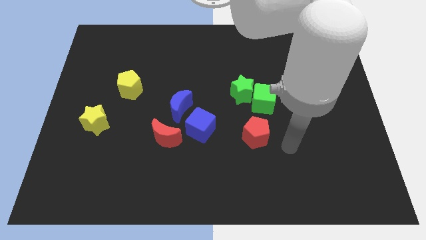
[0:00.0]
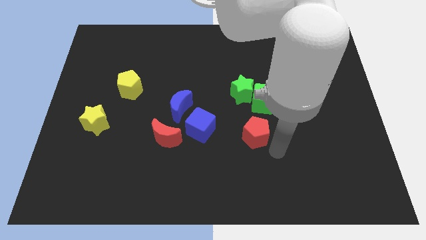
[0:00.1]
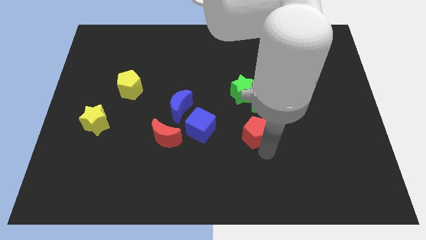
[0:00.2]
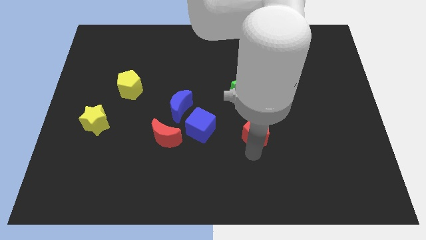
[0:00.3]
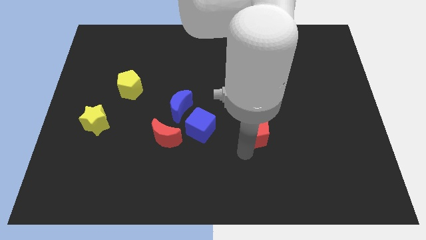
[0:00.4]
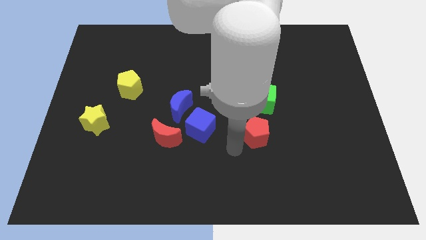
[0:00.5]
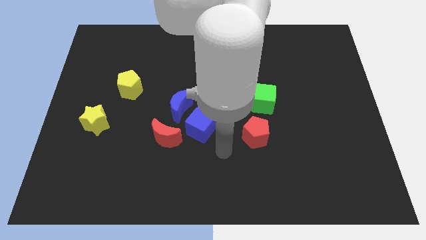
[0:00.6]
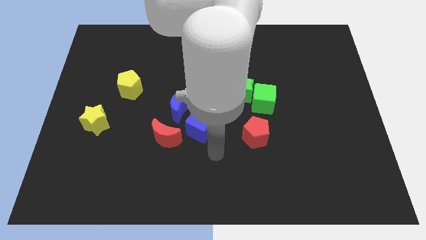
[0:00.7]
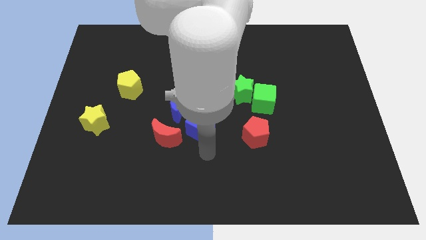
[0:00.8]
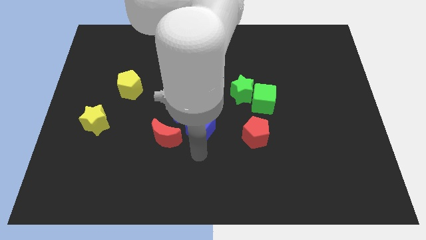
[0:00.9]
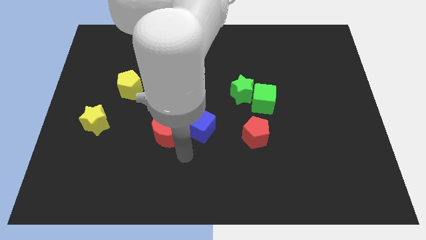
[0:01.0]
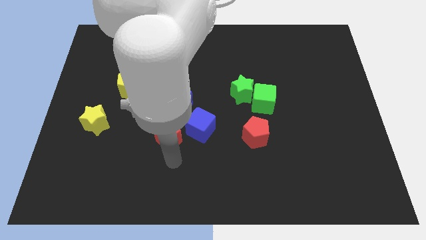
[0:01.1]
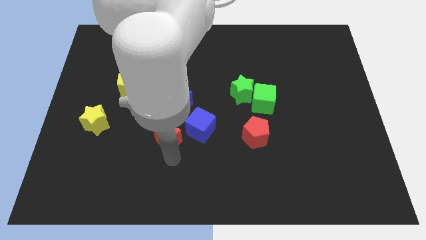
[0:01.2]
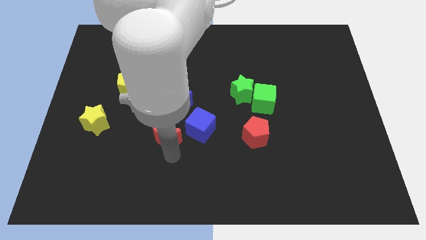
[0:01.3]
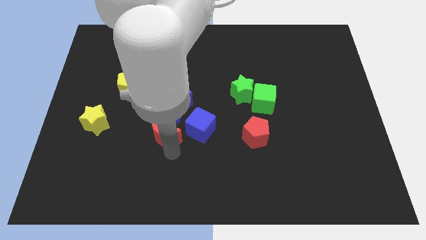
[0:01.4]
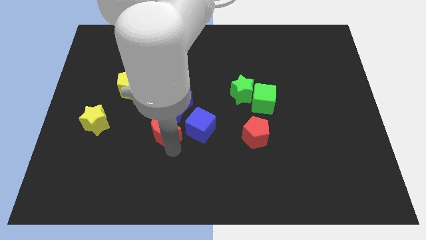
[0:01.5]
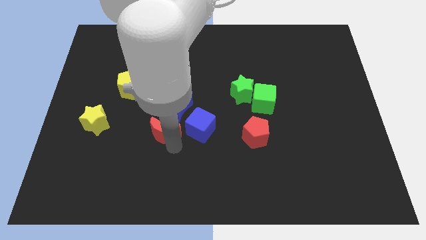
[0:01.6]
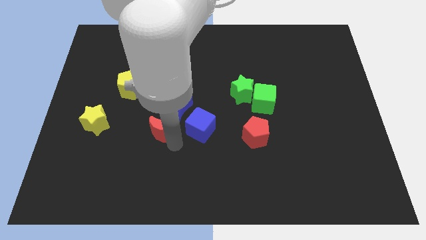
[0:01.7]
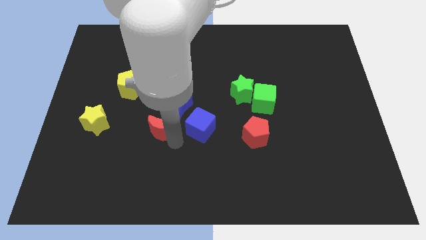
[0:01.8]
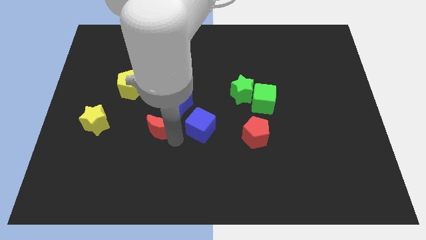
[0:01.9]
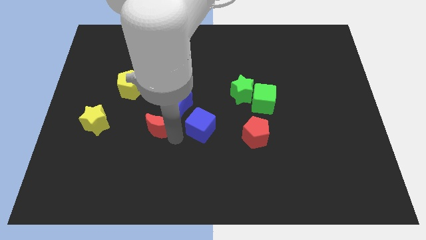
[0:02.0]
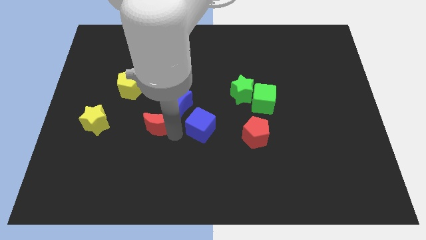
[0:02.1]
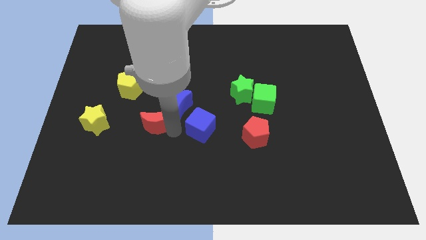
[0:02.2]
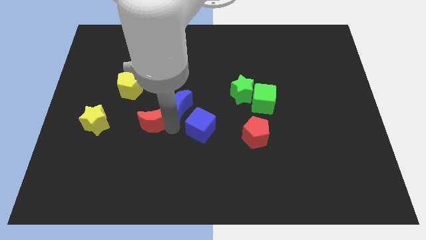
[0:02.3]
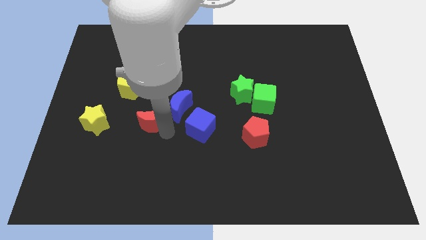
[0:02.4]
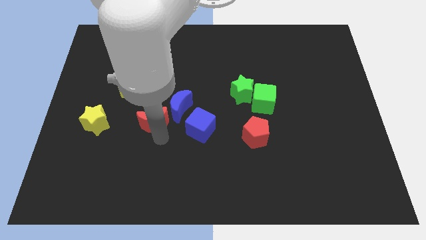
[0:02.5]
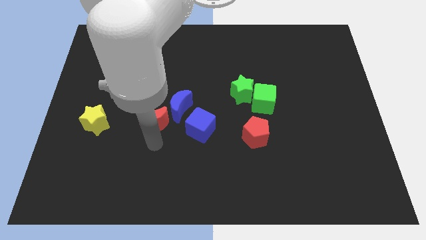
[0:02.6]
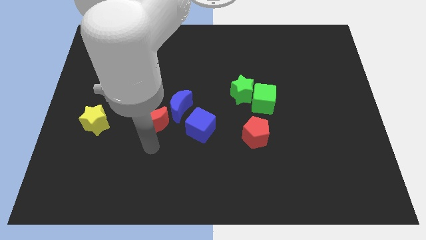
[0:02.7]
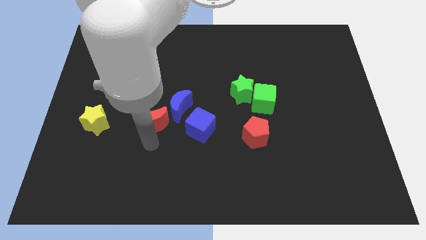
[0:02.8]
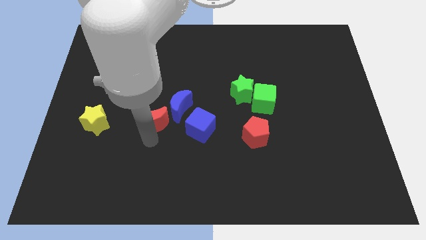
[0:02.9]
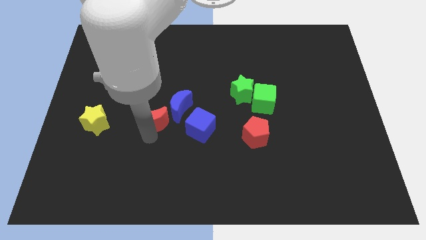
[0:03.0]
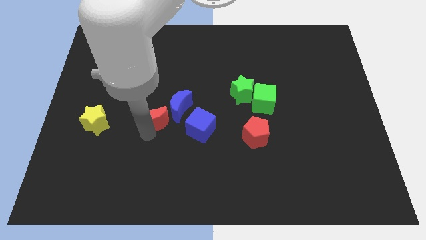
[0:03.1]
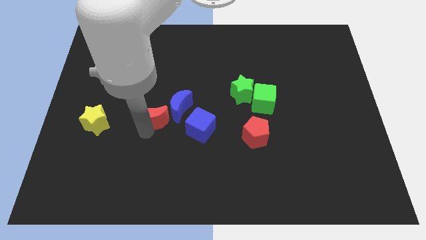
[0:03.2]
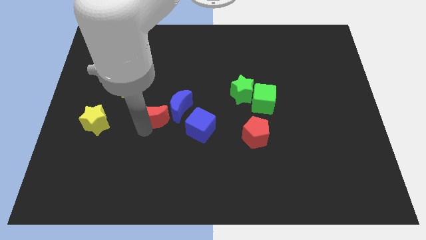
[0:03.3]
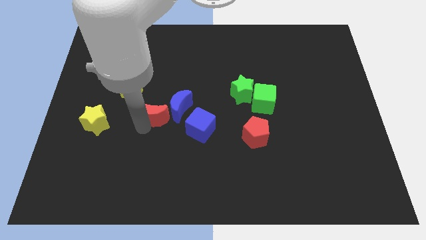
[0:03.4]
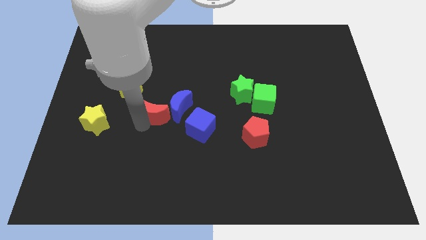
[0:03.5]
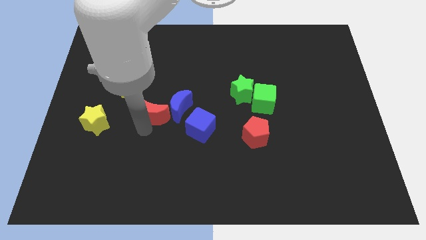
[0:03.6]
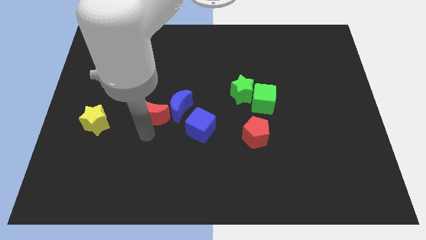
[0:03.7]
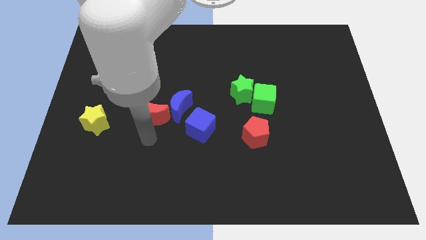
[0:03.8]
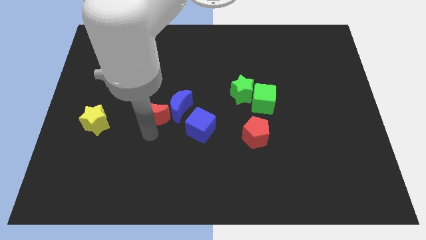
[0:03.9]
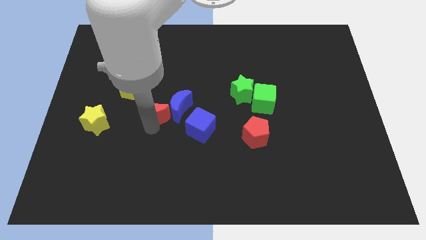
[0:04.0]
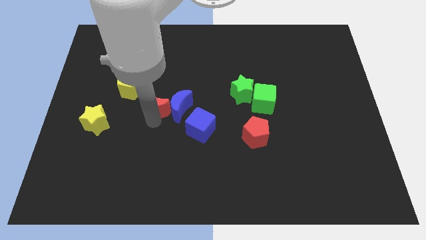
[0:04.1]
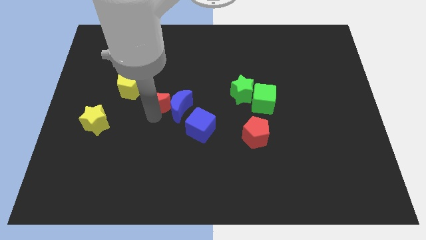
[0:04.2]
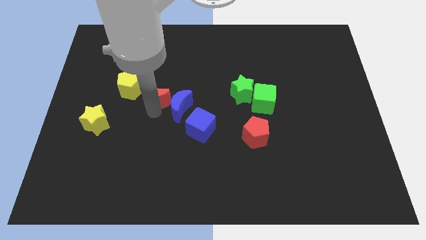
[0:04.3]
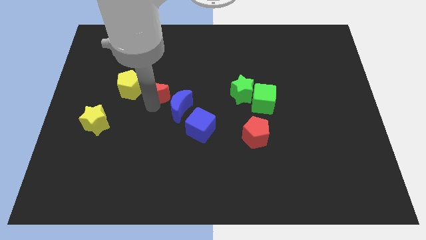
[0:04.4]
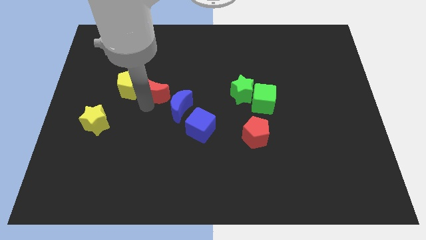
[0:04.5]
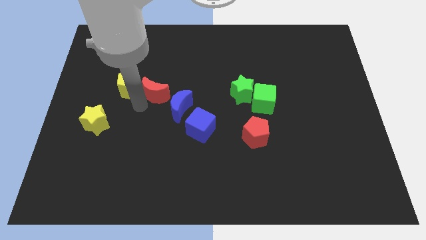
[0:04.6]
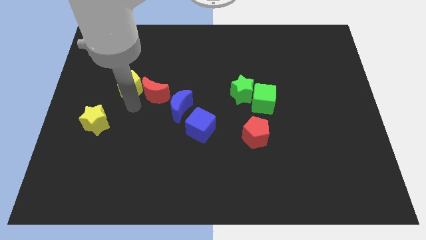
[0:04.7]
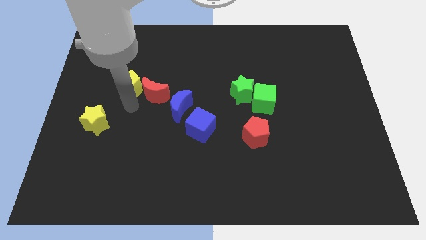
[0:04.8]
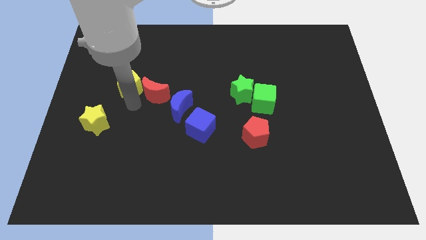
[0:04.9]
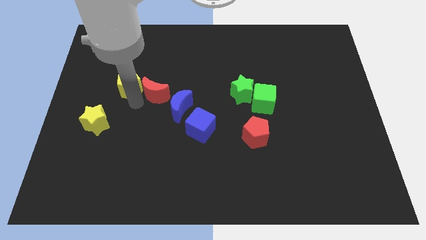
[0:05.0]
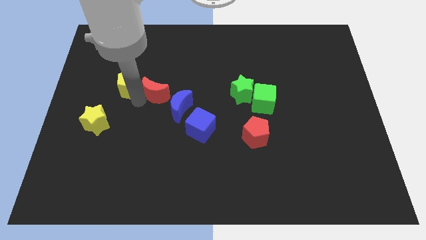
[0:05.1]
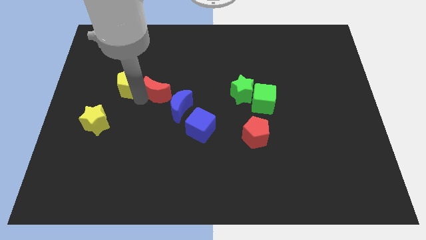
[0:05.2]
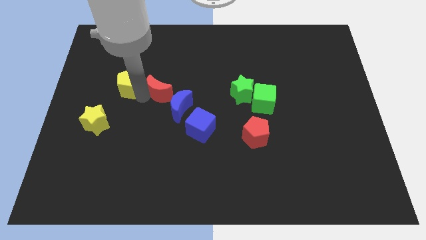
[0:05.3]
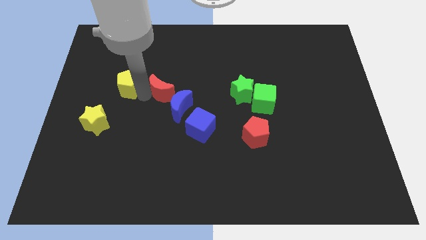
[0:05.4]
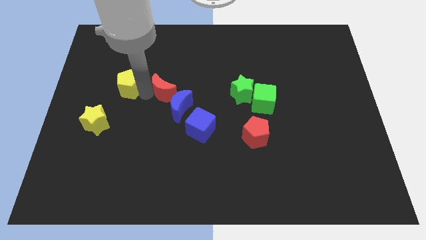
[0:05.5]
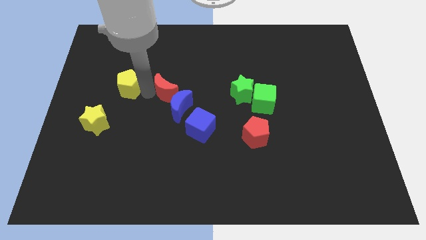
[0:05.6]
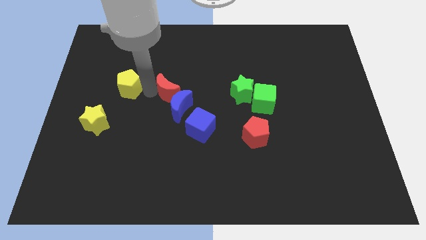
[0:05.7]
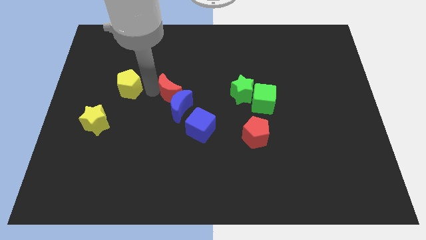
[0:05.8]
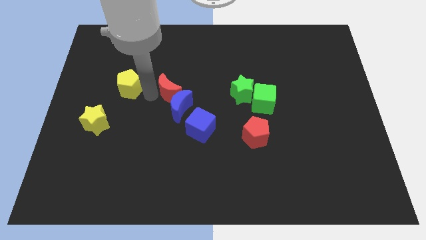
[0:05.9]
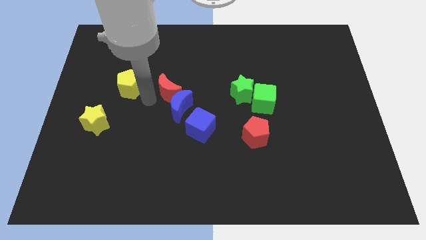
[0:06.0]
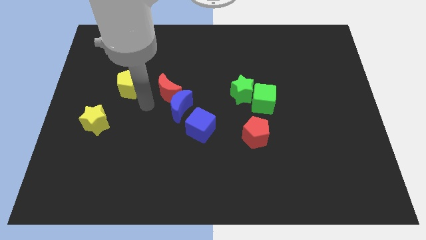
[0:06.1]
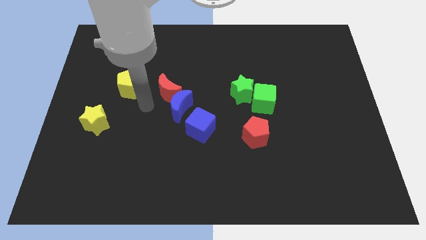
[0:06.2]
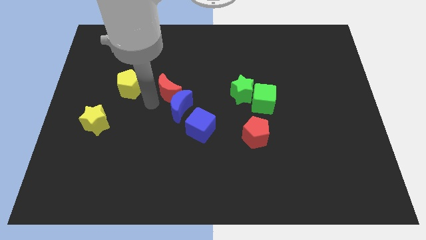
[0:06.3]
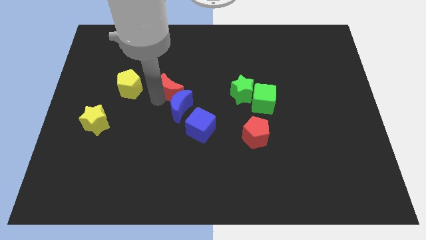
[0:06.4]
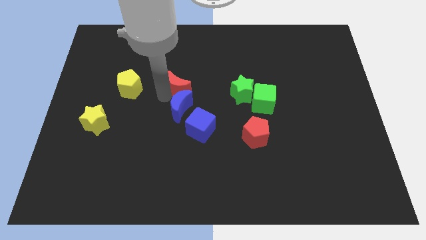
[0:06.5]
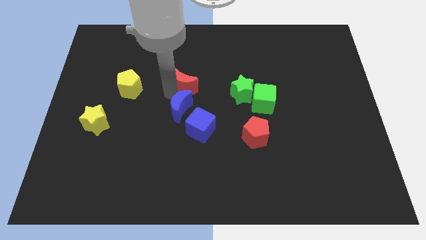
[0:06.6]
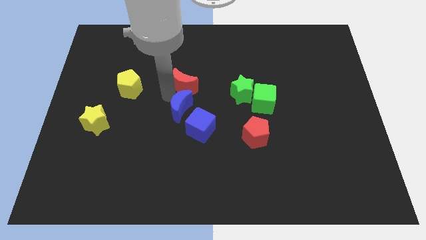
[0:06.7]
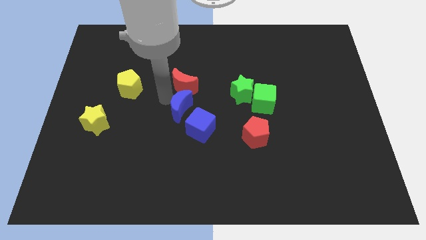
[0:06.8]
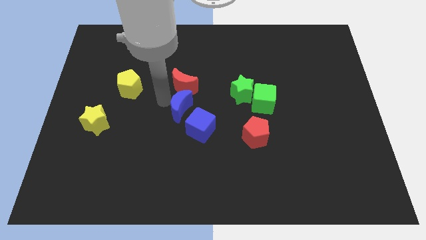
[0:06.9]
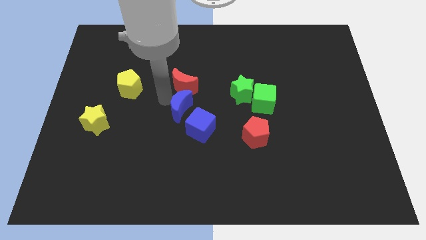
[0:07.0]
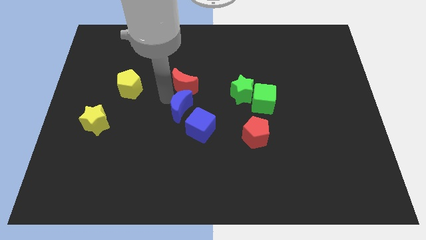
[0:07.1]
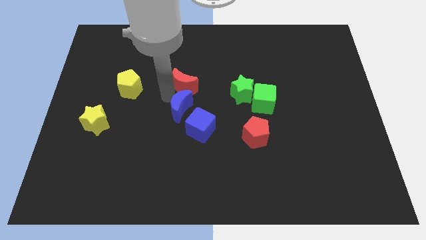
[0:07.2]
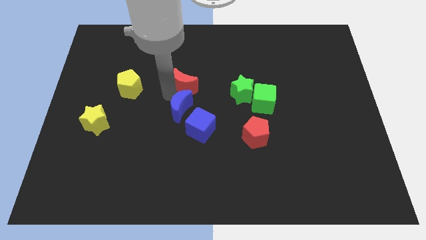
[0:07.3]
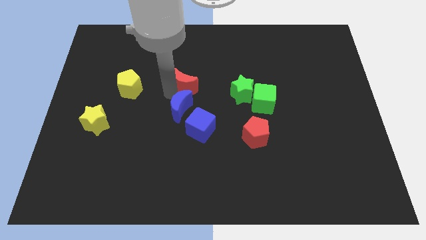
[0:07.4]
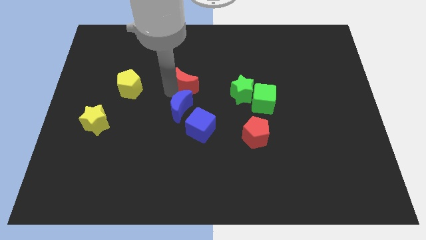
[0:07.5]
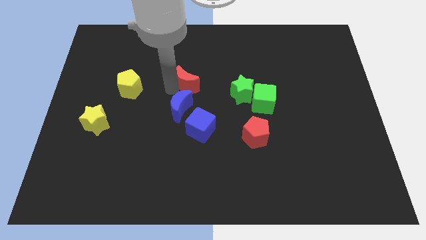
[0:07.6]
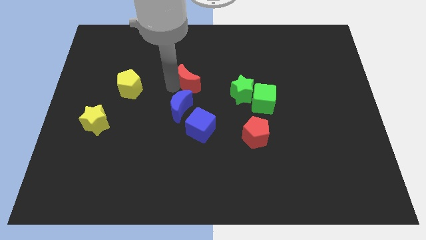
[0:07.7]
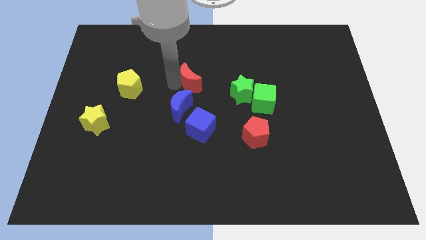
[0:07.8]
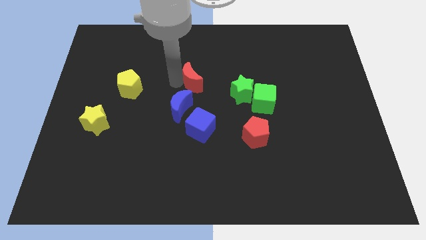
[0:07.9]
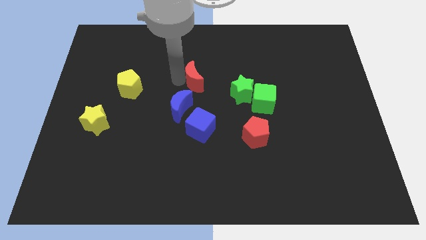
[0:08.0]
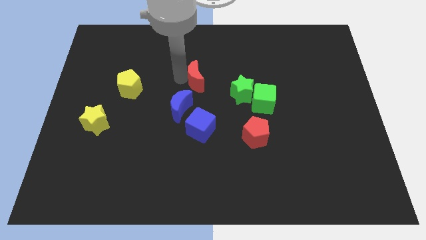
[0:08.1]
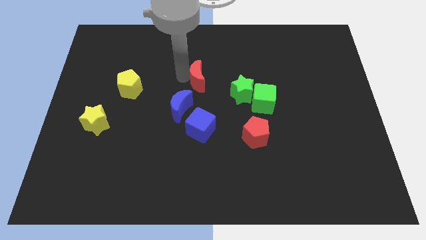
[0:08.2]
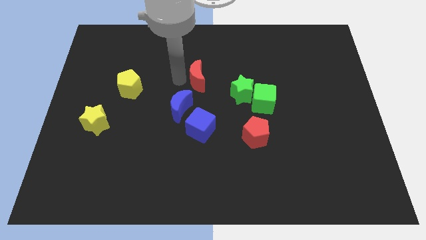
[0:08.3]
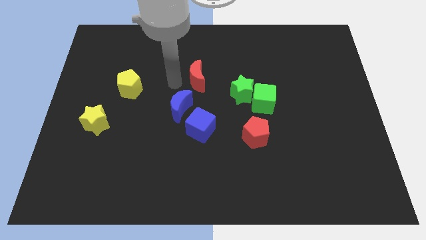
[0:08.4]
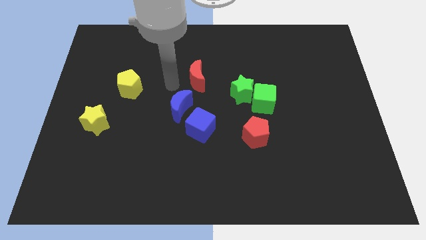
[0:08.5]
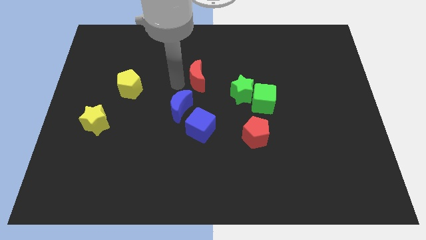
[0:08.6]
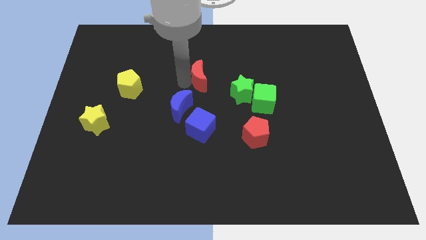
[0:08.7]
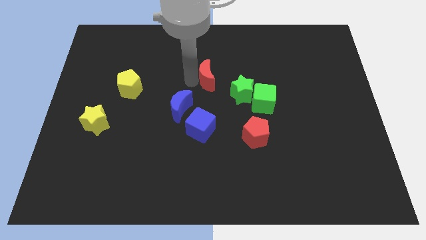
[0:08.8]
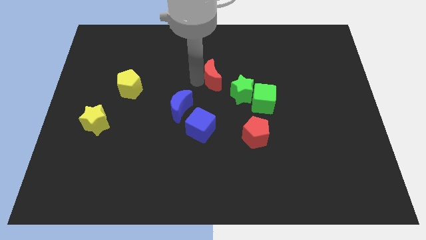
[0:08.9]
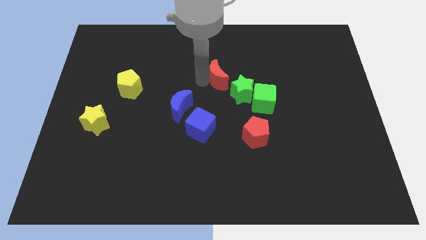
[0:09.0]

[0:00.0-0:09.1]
slide the red moon upwards and to the right
